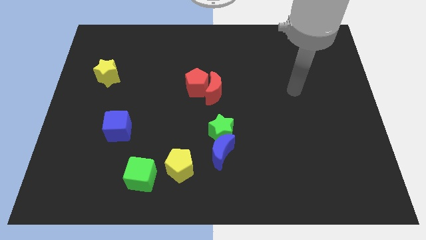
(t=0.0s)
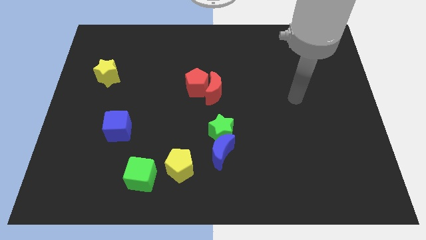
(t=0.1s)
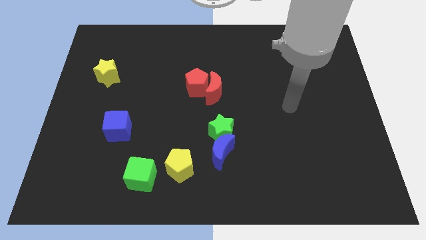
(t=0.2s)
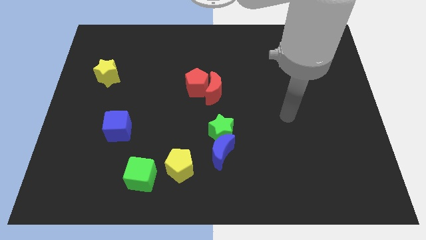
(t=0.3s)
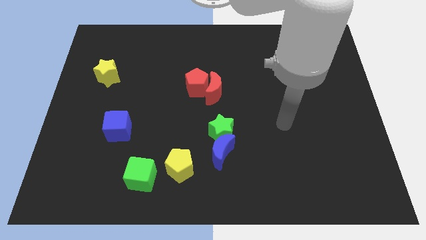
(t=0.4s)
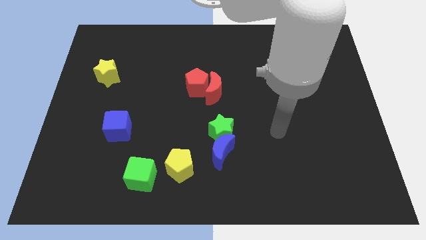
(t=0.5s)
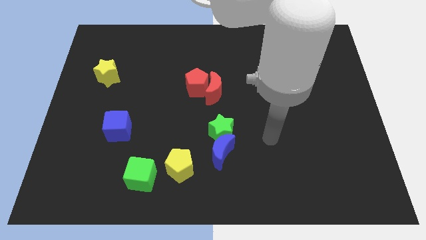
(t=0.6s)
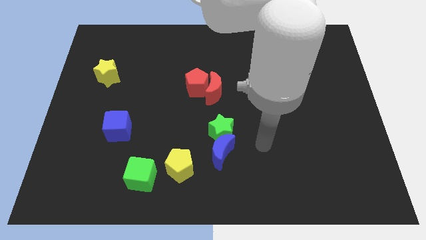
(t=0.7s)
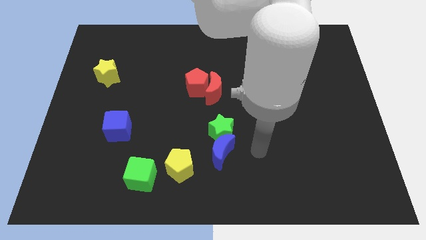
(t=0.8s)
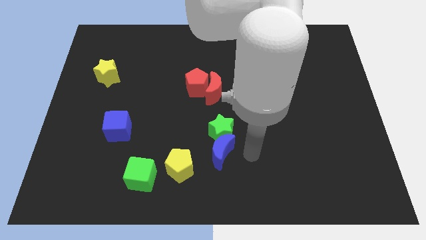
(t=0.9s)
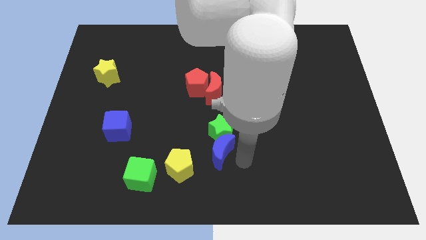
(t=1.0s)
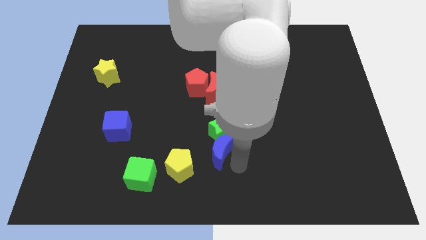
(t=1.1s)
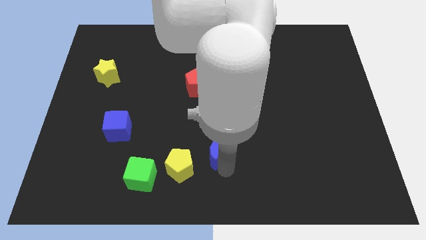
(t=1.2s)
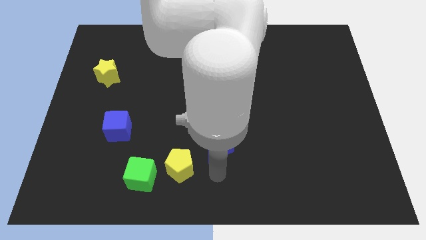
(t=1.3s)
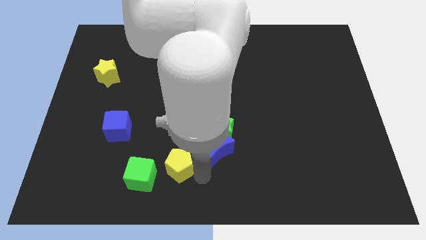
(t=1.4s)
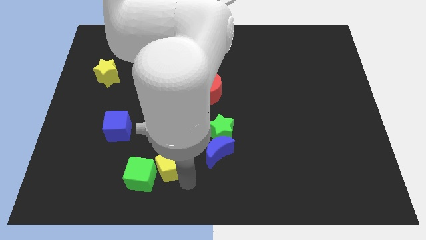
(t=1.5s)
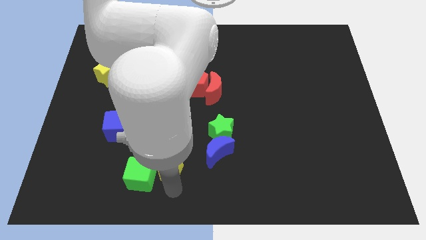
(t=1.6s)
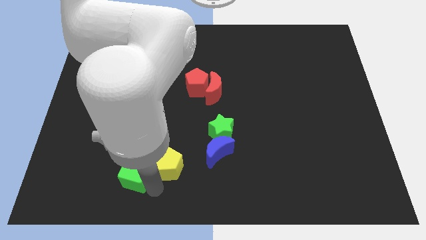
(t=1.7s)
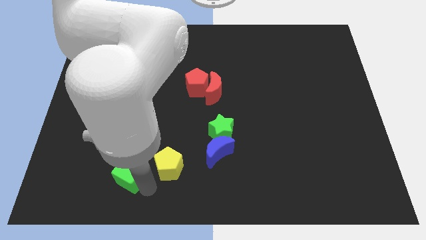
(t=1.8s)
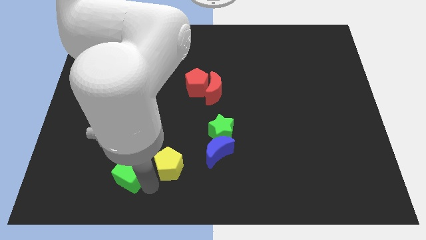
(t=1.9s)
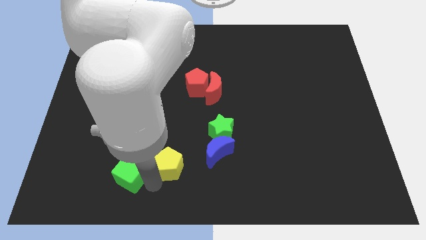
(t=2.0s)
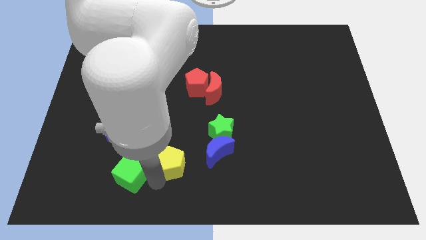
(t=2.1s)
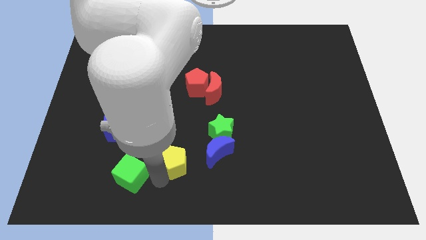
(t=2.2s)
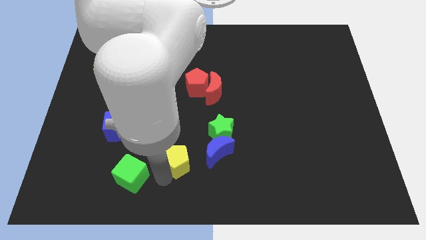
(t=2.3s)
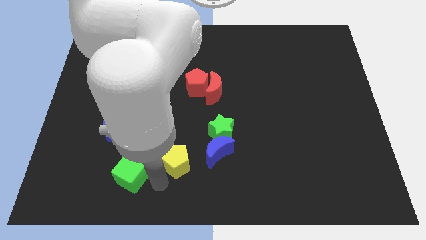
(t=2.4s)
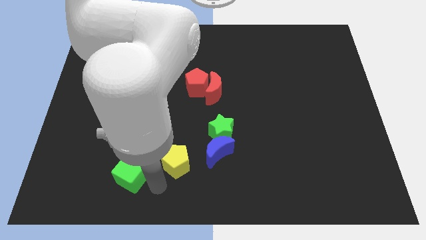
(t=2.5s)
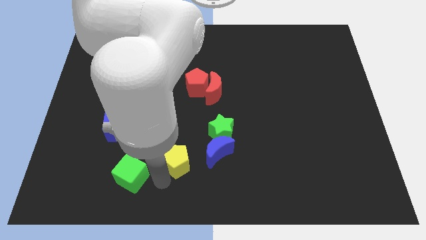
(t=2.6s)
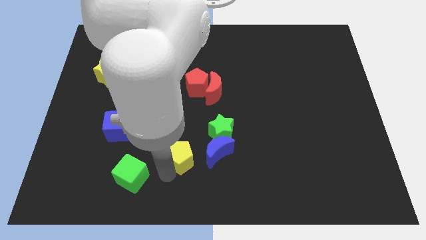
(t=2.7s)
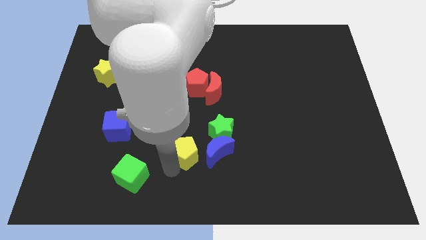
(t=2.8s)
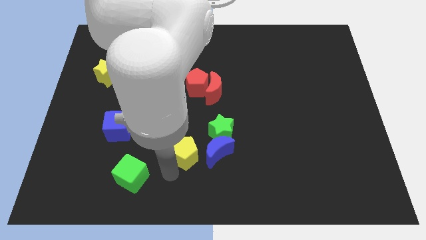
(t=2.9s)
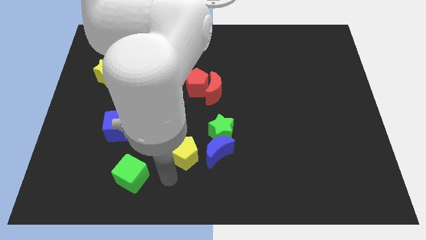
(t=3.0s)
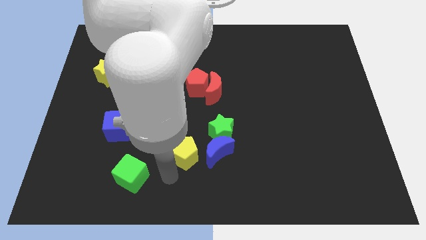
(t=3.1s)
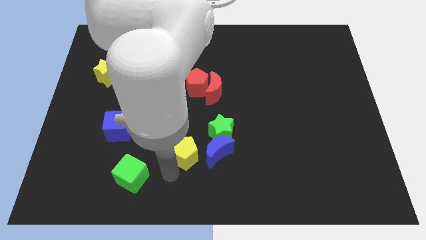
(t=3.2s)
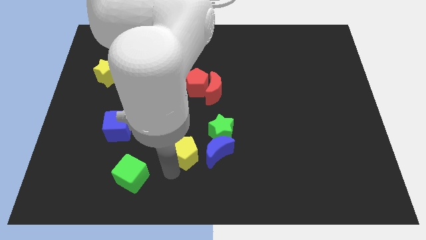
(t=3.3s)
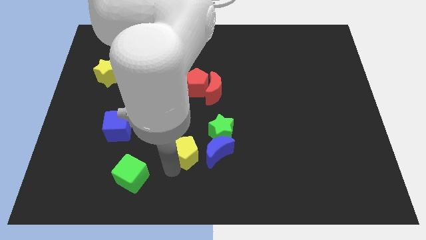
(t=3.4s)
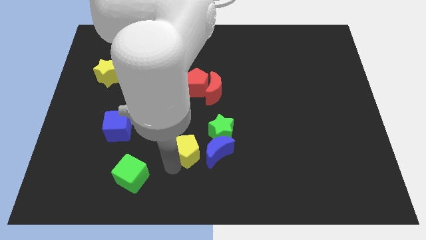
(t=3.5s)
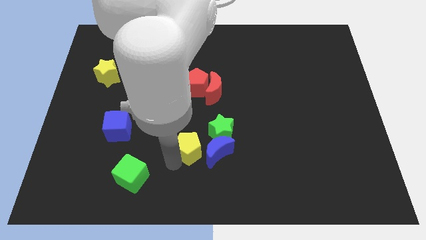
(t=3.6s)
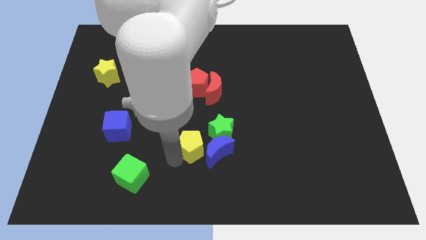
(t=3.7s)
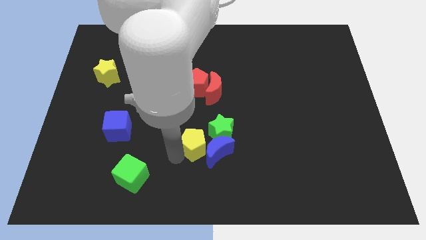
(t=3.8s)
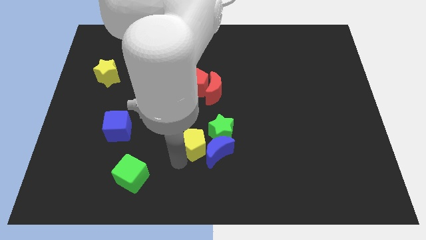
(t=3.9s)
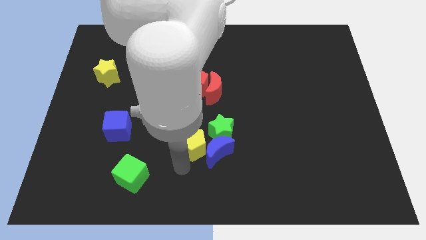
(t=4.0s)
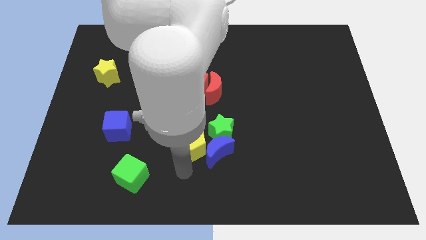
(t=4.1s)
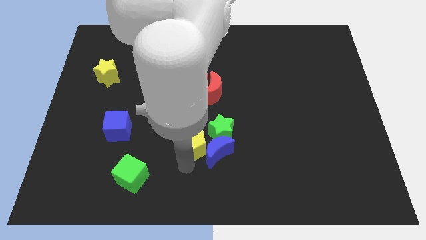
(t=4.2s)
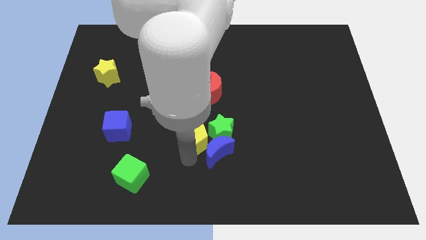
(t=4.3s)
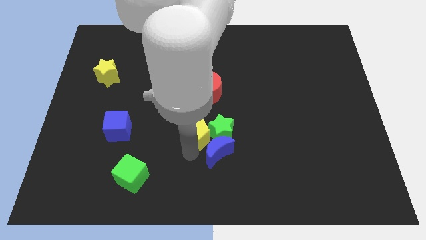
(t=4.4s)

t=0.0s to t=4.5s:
push the yellow pentagon upwards and then right a bit

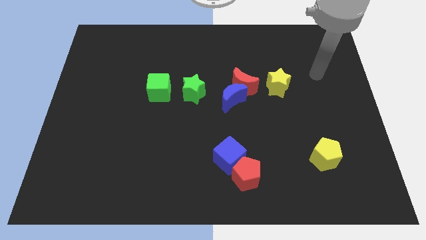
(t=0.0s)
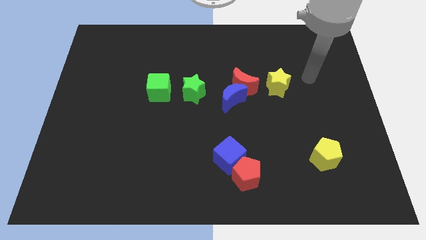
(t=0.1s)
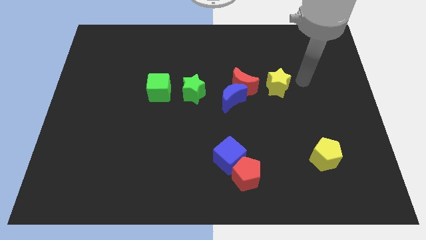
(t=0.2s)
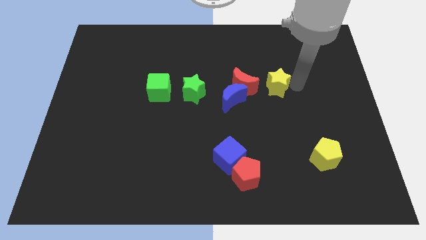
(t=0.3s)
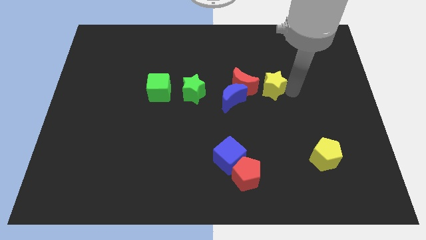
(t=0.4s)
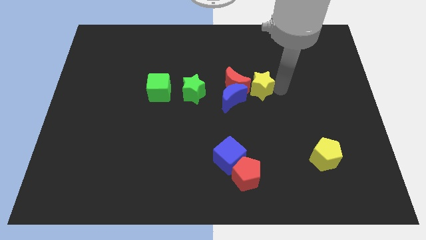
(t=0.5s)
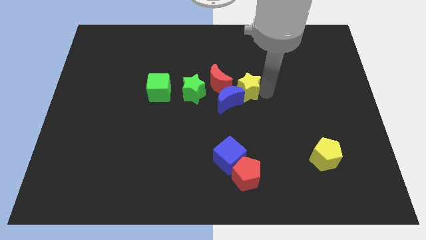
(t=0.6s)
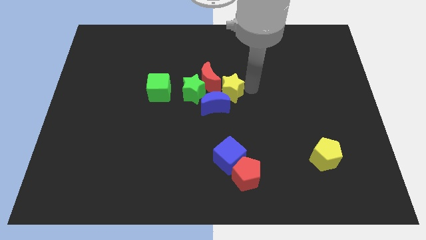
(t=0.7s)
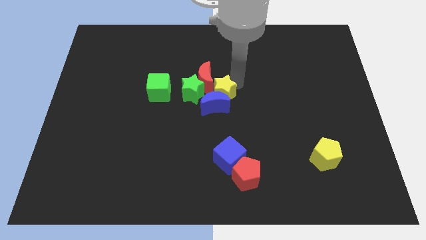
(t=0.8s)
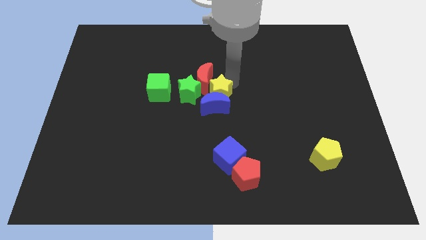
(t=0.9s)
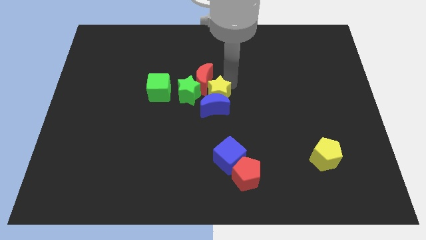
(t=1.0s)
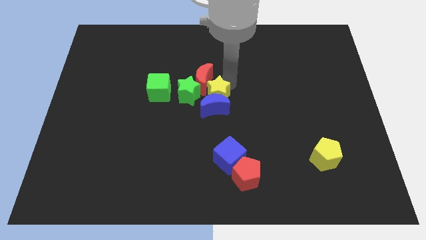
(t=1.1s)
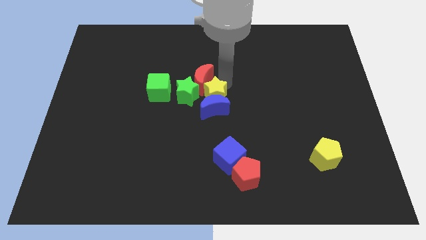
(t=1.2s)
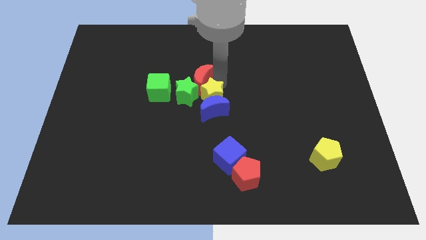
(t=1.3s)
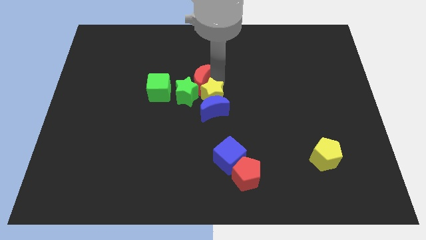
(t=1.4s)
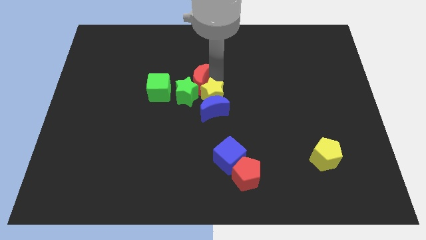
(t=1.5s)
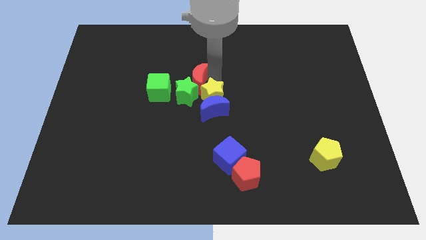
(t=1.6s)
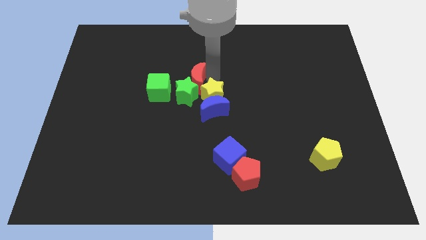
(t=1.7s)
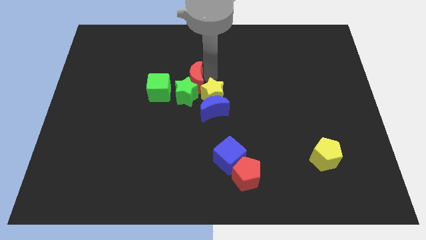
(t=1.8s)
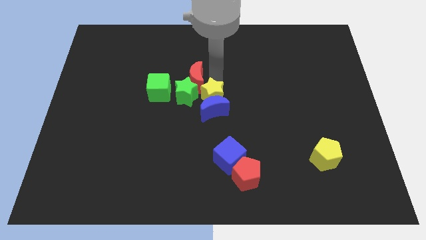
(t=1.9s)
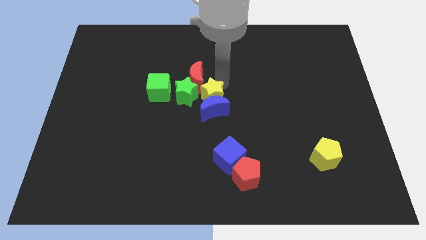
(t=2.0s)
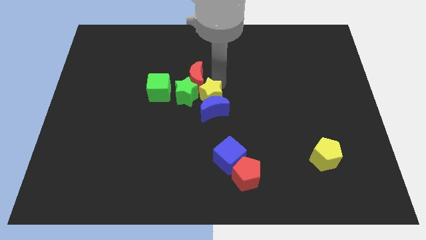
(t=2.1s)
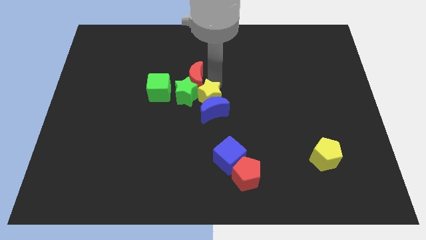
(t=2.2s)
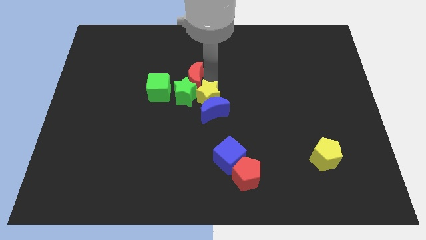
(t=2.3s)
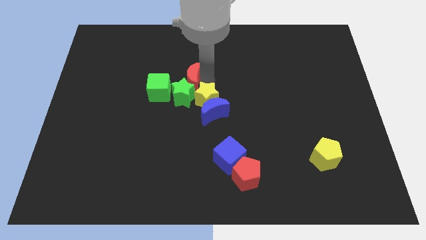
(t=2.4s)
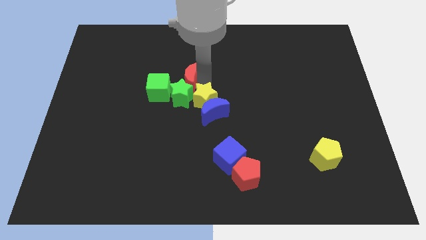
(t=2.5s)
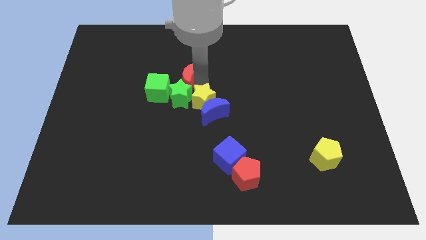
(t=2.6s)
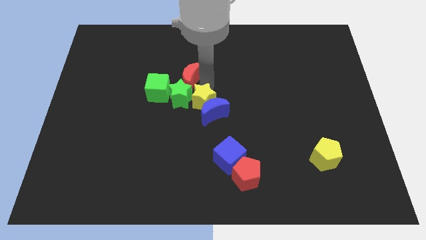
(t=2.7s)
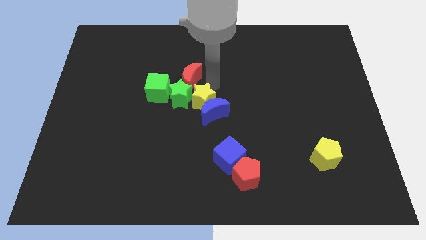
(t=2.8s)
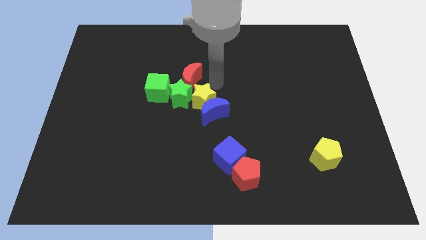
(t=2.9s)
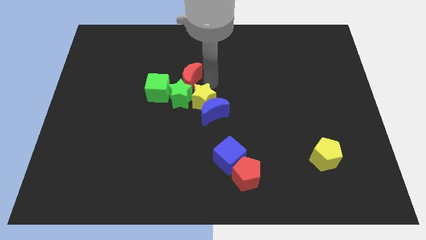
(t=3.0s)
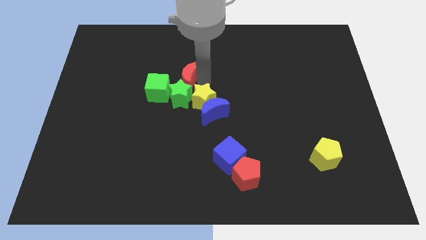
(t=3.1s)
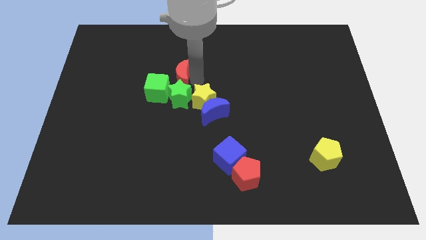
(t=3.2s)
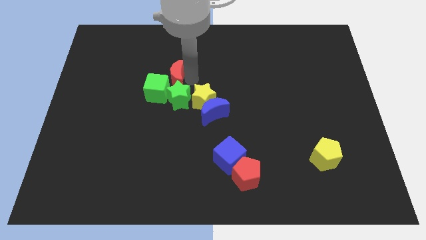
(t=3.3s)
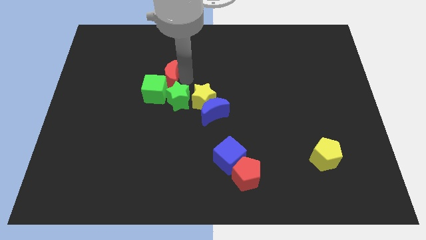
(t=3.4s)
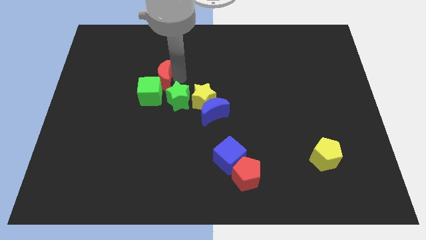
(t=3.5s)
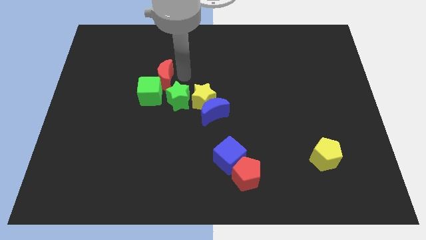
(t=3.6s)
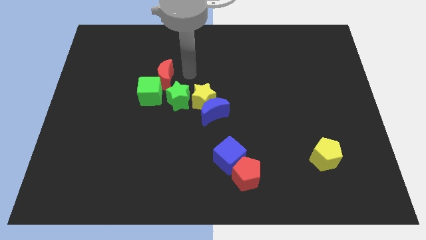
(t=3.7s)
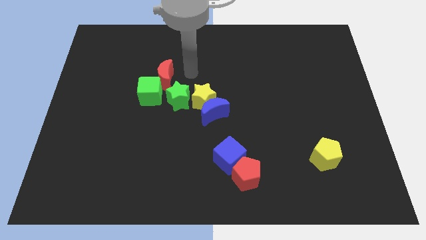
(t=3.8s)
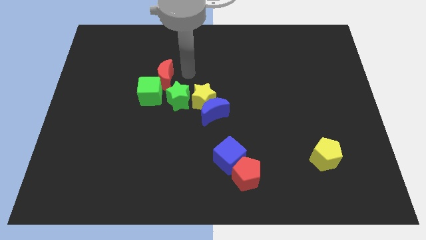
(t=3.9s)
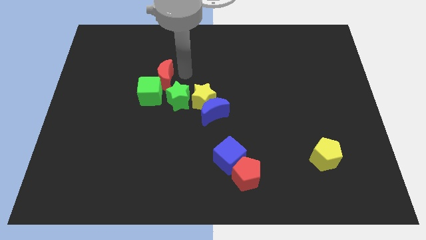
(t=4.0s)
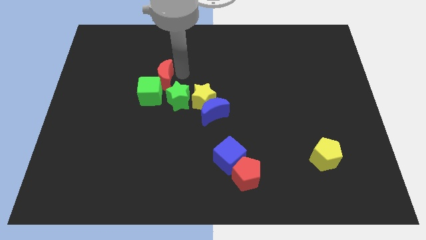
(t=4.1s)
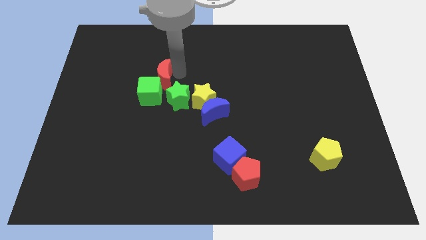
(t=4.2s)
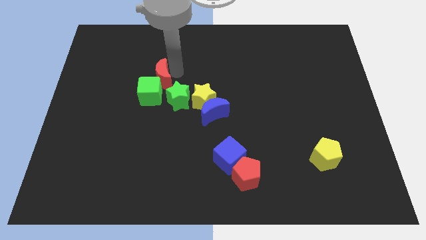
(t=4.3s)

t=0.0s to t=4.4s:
slide the red moon to the left
